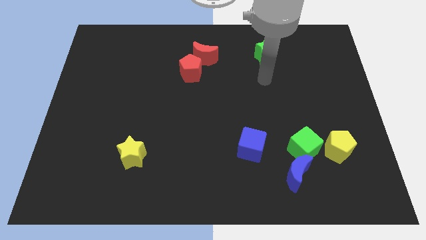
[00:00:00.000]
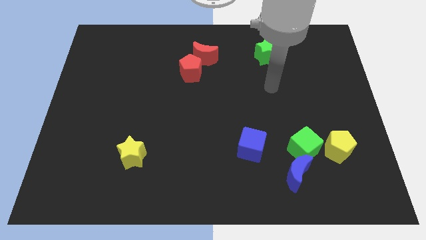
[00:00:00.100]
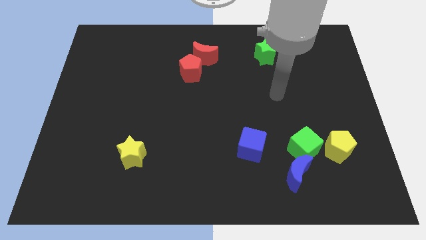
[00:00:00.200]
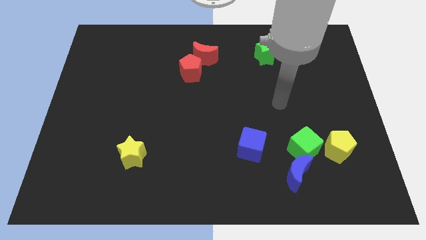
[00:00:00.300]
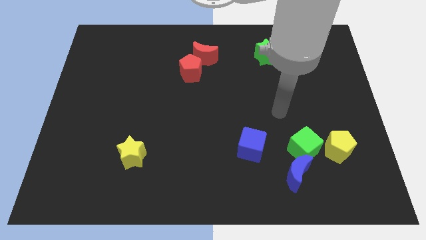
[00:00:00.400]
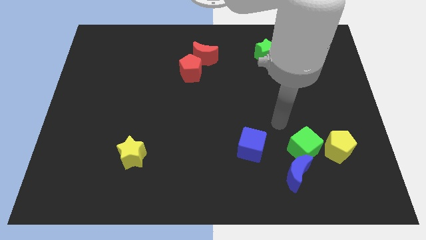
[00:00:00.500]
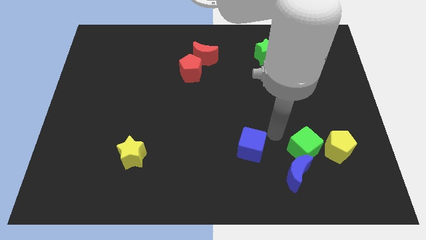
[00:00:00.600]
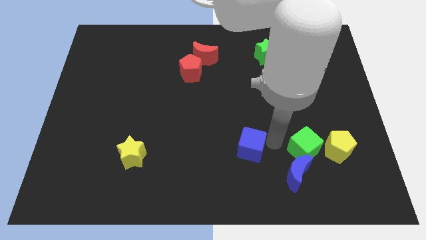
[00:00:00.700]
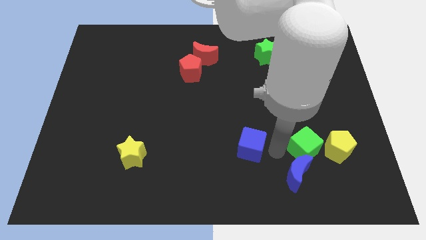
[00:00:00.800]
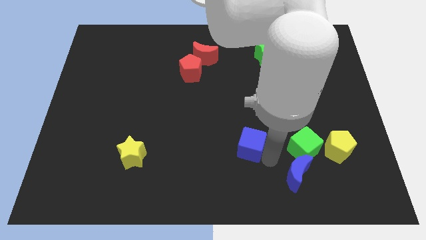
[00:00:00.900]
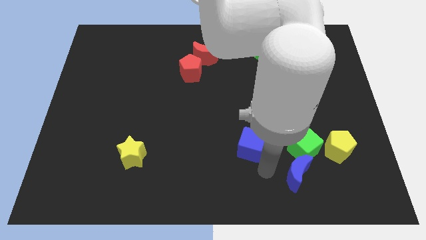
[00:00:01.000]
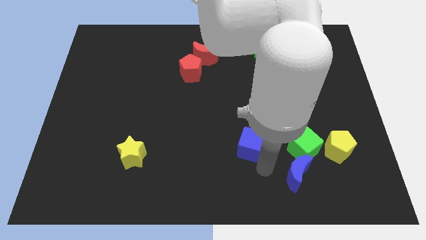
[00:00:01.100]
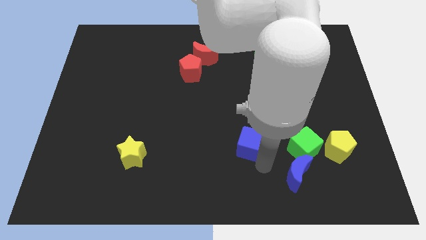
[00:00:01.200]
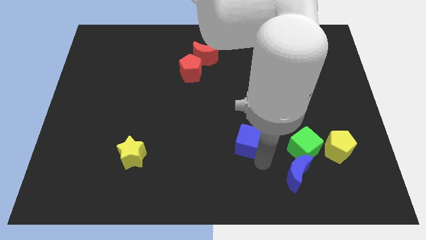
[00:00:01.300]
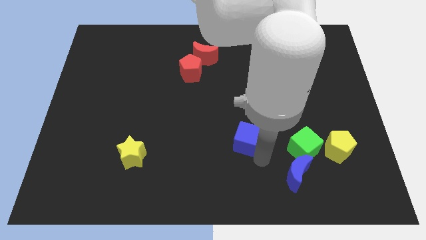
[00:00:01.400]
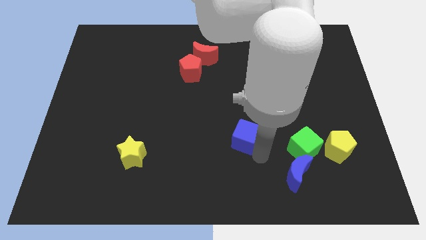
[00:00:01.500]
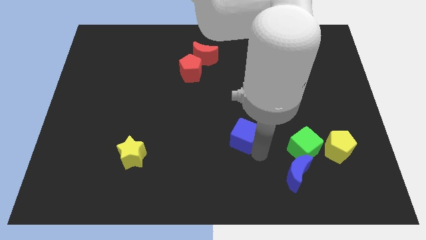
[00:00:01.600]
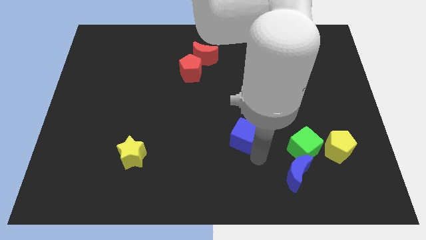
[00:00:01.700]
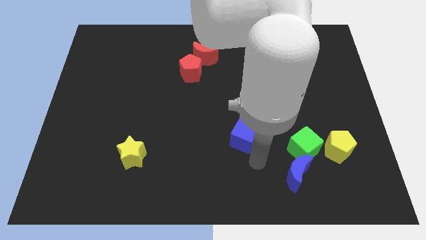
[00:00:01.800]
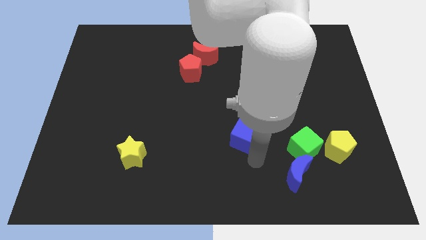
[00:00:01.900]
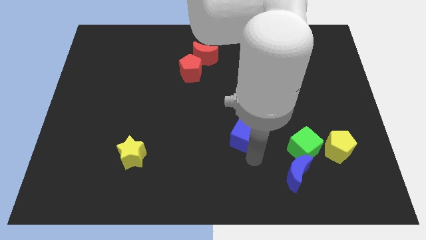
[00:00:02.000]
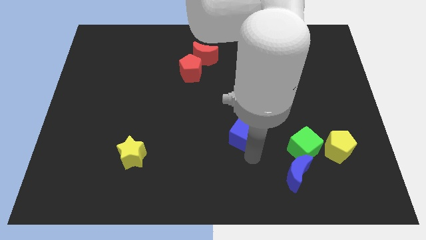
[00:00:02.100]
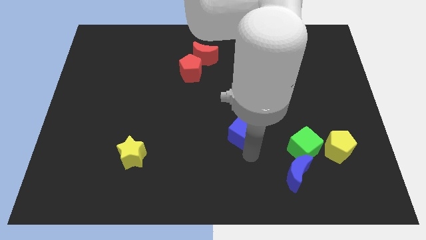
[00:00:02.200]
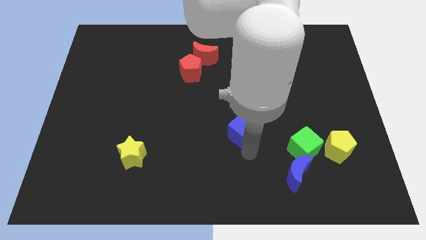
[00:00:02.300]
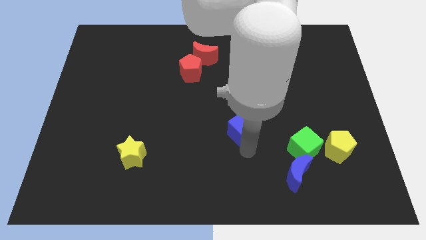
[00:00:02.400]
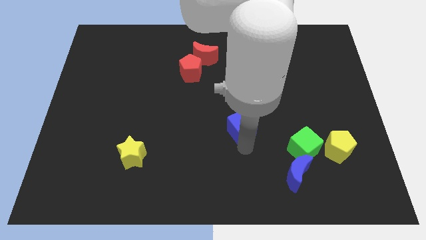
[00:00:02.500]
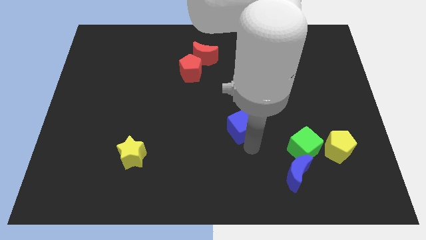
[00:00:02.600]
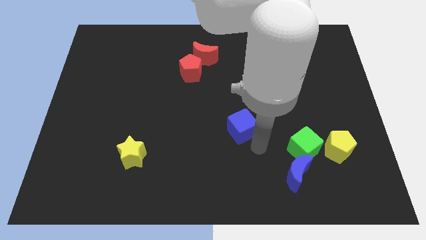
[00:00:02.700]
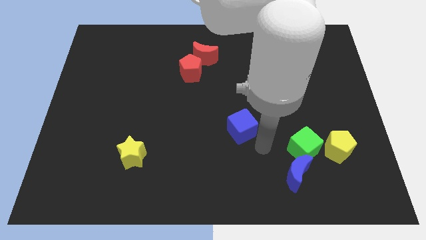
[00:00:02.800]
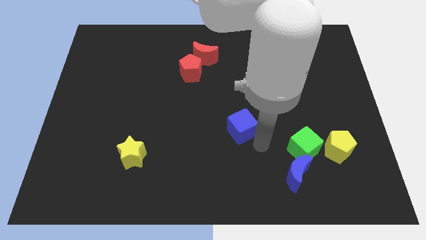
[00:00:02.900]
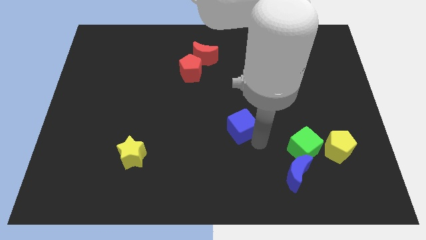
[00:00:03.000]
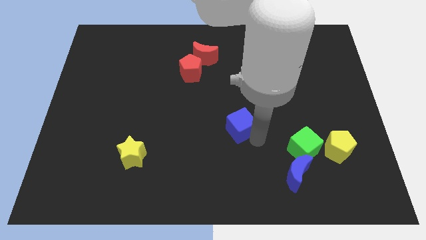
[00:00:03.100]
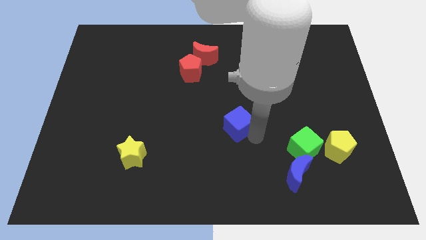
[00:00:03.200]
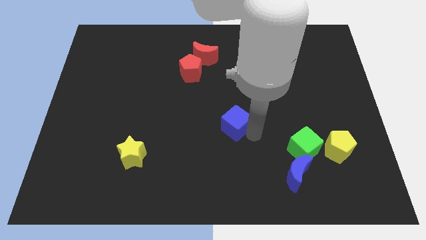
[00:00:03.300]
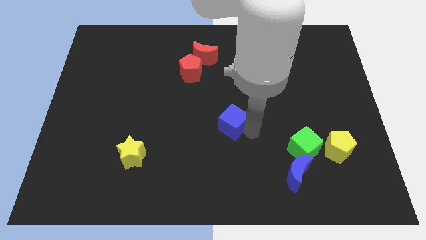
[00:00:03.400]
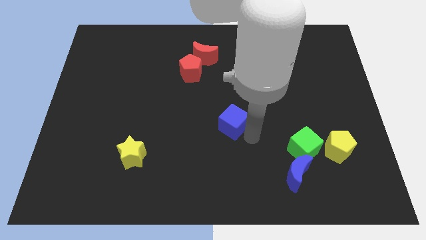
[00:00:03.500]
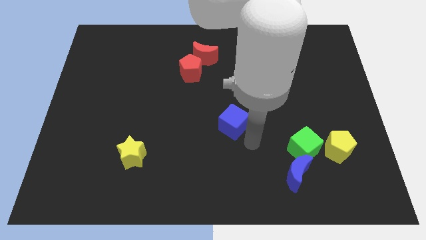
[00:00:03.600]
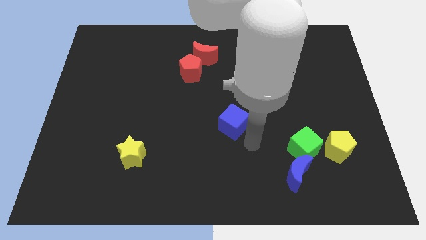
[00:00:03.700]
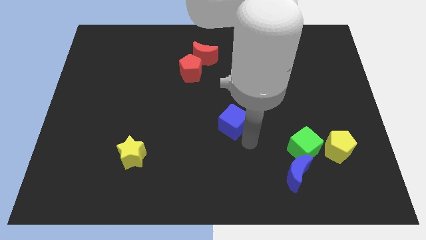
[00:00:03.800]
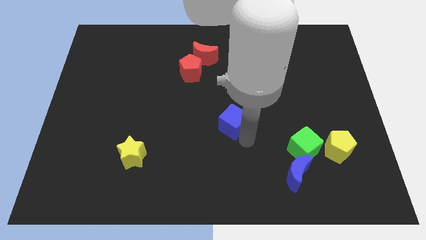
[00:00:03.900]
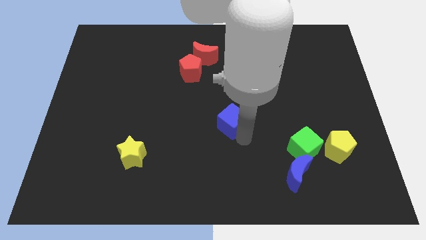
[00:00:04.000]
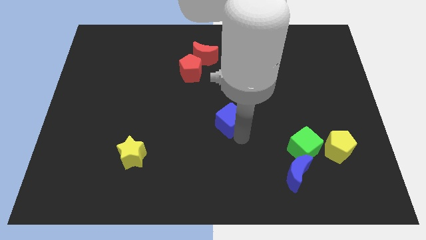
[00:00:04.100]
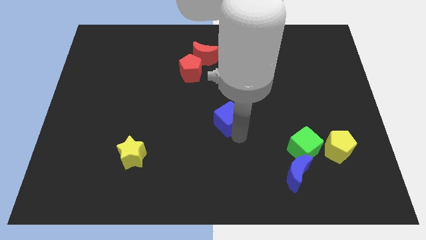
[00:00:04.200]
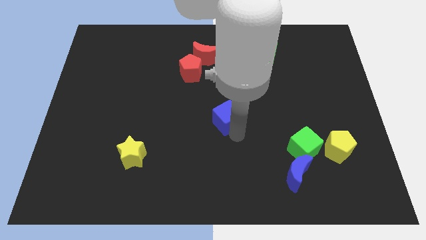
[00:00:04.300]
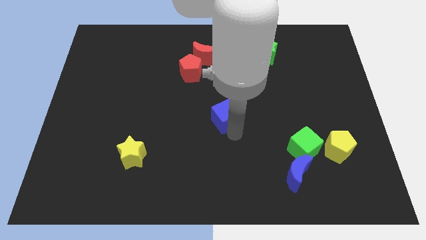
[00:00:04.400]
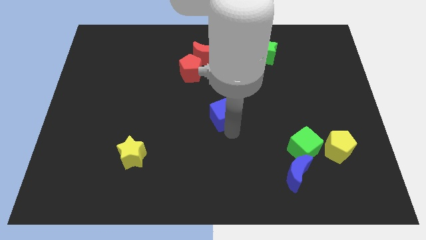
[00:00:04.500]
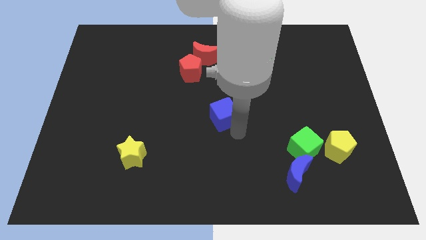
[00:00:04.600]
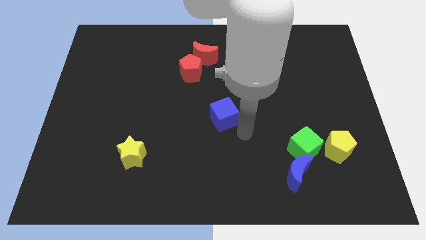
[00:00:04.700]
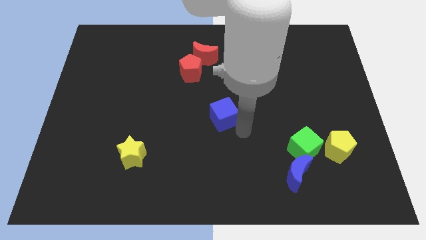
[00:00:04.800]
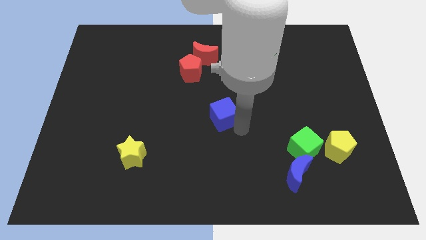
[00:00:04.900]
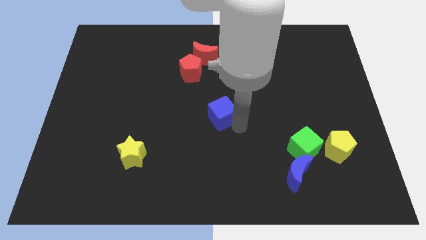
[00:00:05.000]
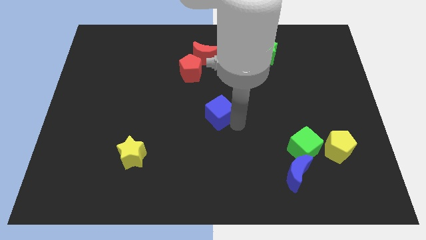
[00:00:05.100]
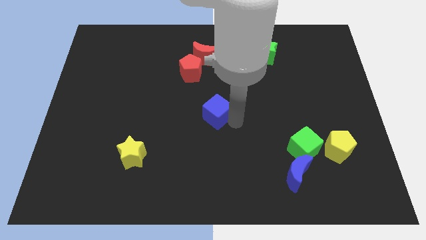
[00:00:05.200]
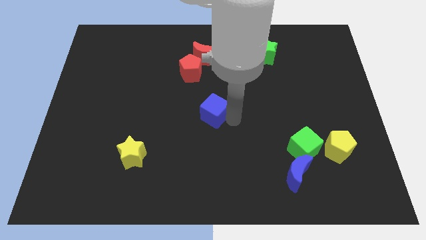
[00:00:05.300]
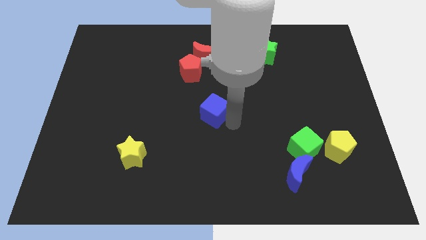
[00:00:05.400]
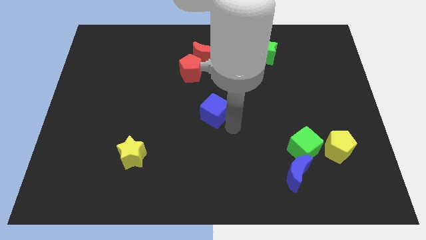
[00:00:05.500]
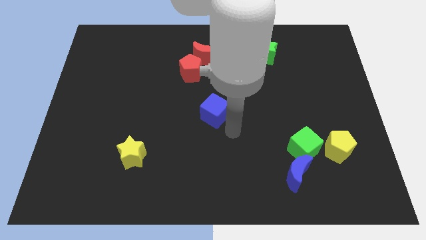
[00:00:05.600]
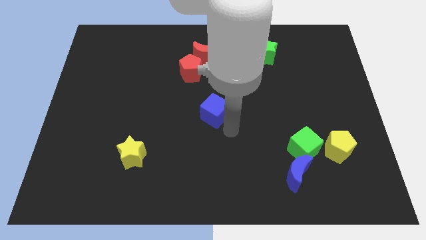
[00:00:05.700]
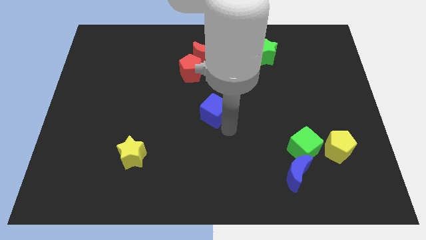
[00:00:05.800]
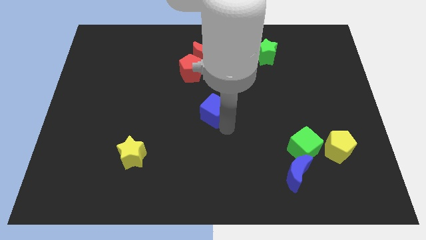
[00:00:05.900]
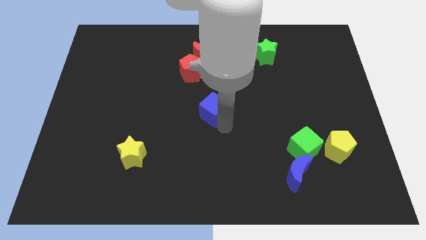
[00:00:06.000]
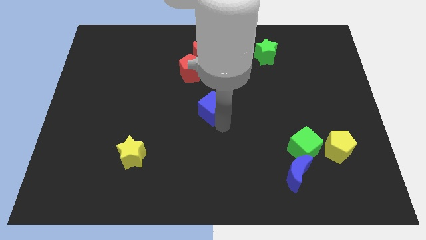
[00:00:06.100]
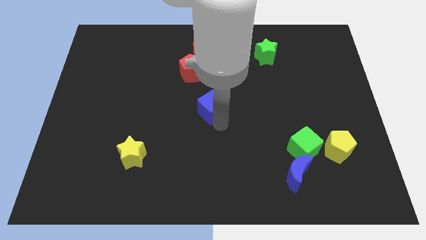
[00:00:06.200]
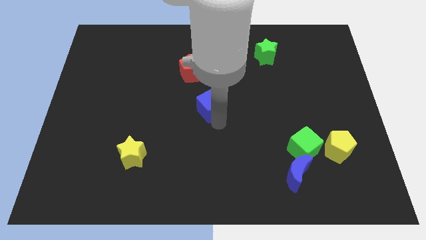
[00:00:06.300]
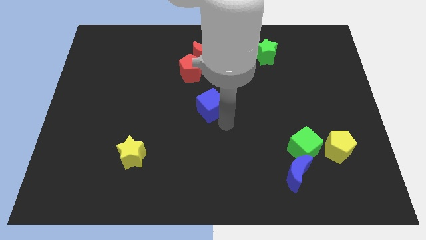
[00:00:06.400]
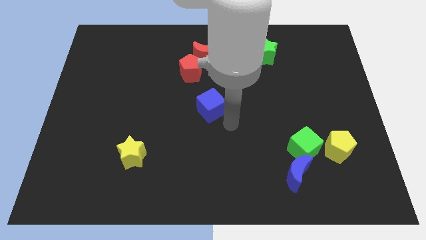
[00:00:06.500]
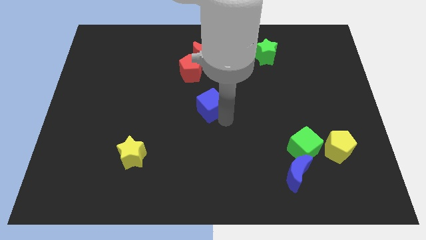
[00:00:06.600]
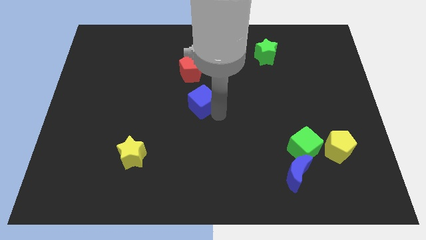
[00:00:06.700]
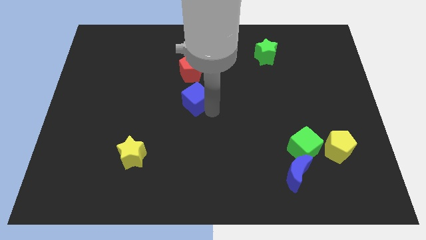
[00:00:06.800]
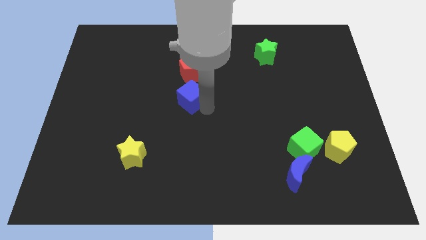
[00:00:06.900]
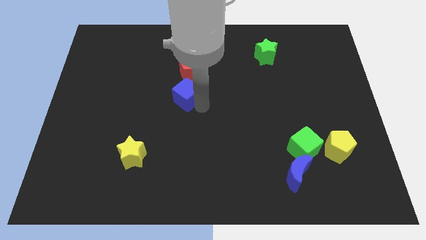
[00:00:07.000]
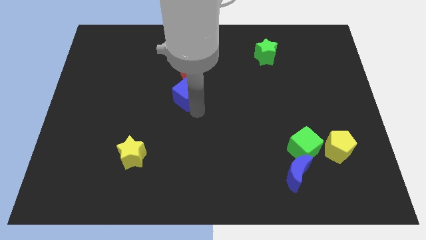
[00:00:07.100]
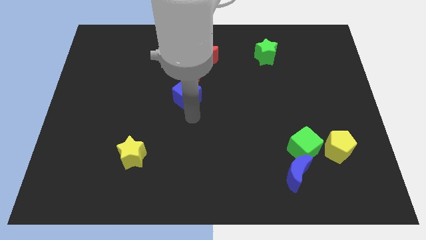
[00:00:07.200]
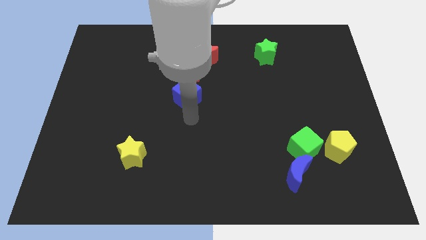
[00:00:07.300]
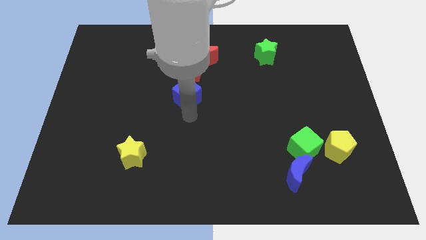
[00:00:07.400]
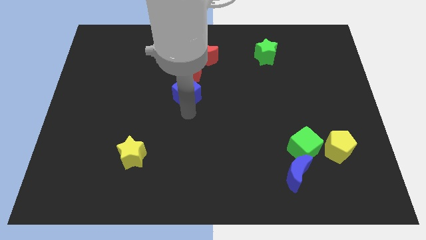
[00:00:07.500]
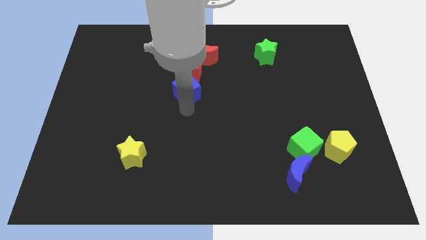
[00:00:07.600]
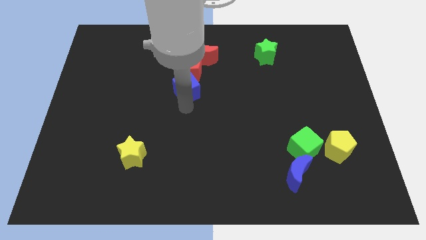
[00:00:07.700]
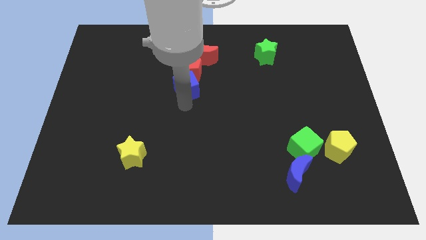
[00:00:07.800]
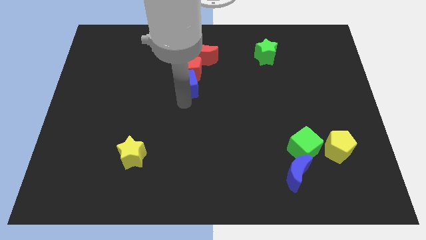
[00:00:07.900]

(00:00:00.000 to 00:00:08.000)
push the blue cube diagonally down and to the left of the red moon
